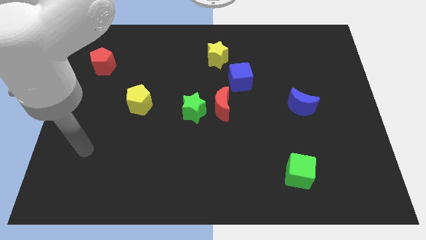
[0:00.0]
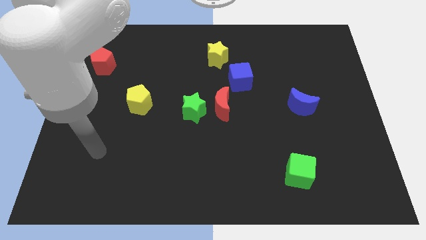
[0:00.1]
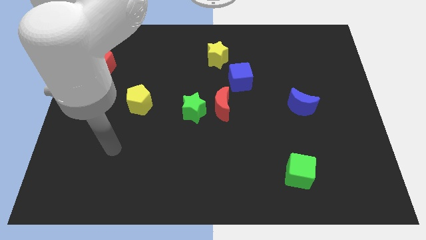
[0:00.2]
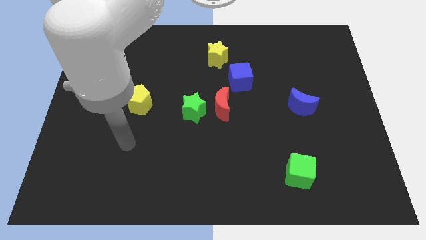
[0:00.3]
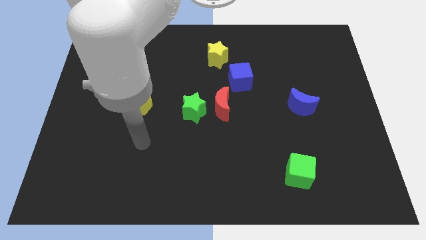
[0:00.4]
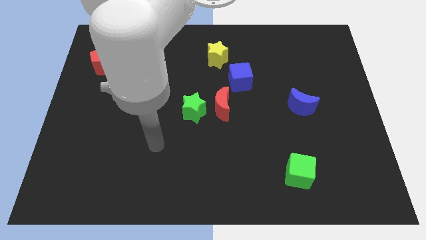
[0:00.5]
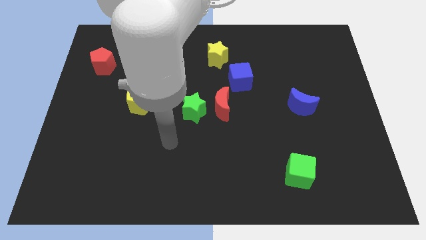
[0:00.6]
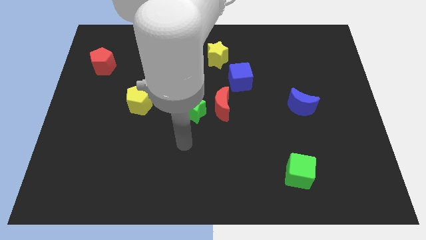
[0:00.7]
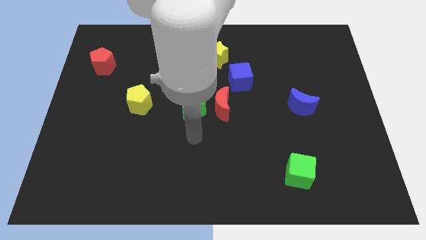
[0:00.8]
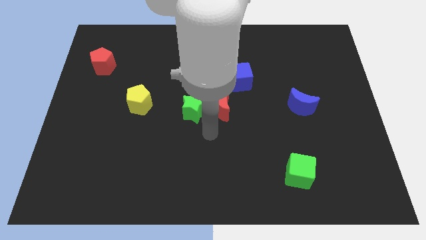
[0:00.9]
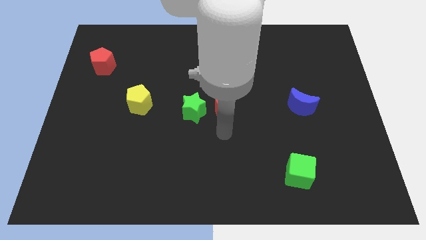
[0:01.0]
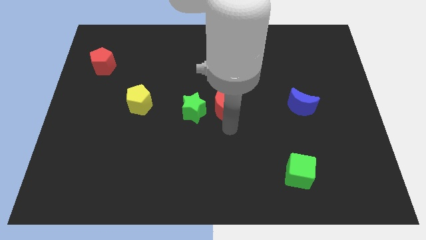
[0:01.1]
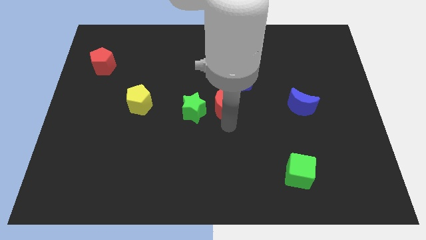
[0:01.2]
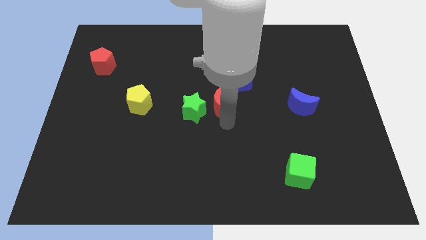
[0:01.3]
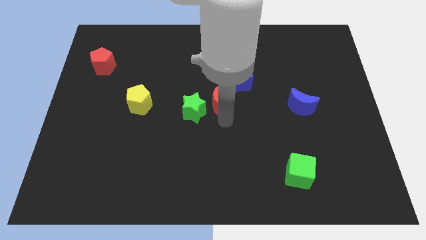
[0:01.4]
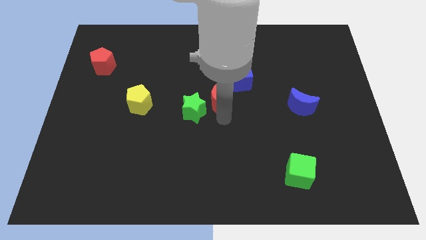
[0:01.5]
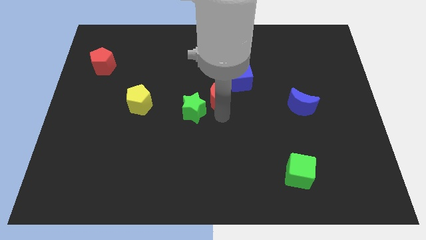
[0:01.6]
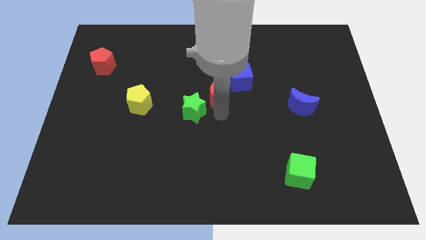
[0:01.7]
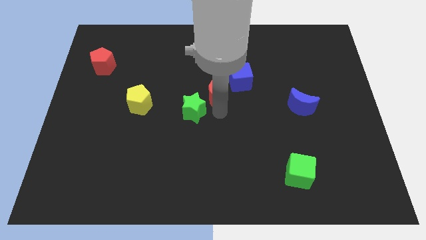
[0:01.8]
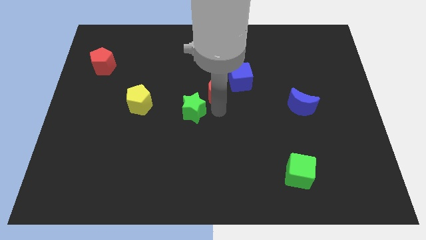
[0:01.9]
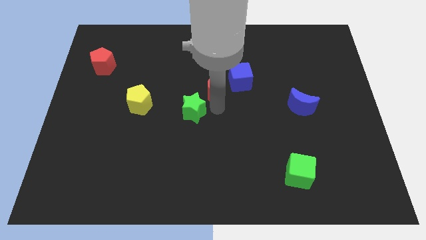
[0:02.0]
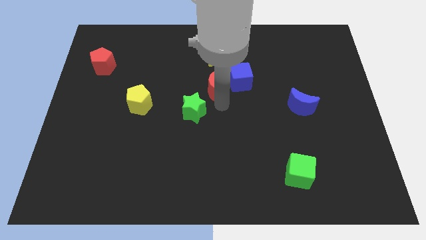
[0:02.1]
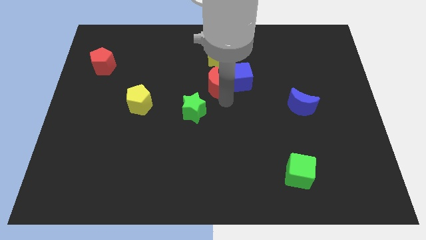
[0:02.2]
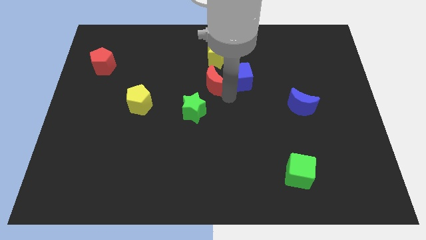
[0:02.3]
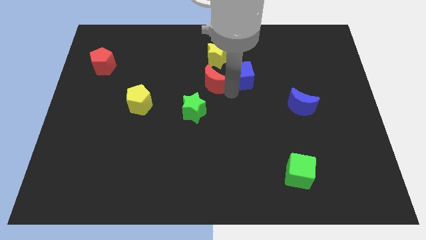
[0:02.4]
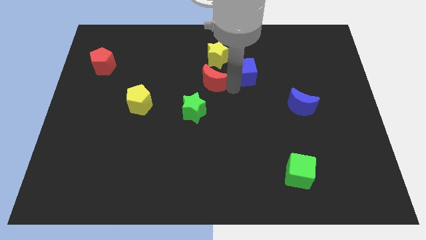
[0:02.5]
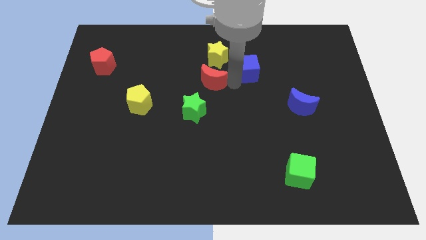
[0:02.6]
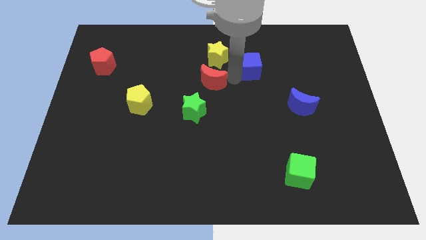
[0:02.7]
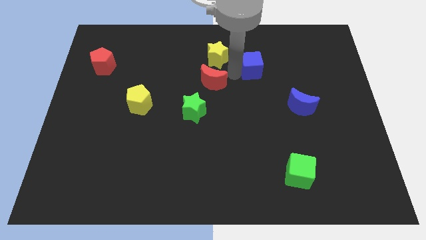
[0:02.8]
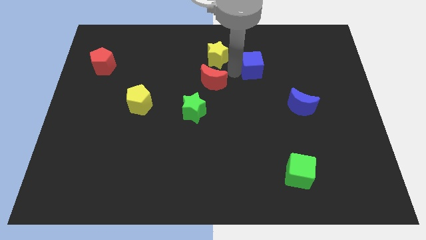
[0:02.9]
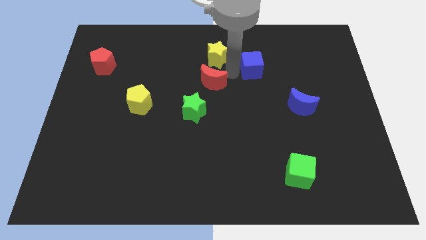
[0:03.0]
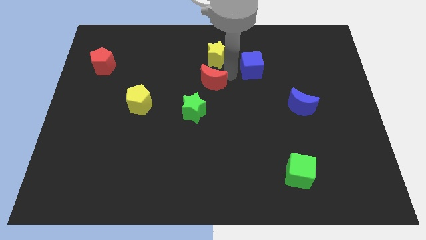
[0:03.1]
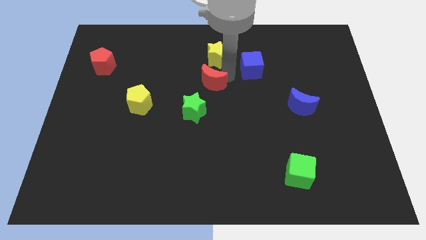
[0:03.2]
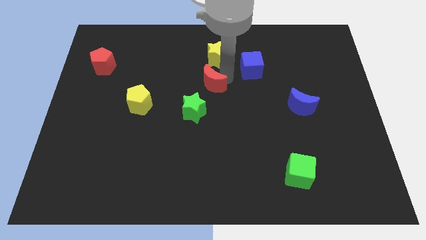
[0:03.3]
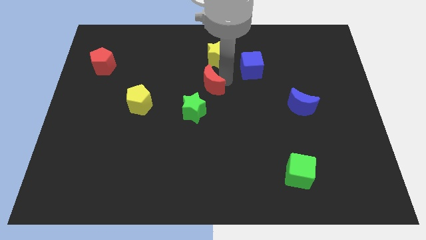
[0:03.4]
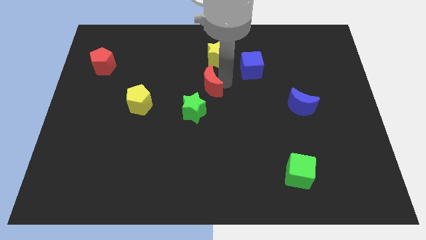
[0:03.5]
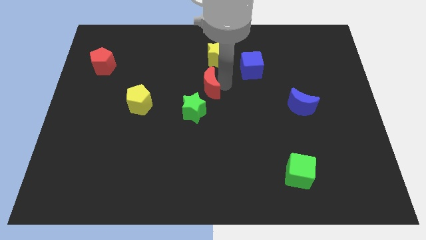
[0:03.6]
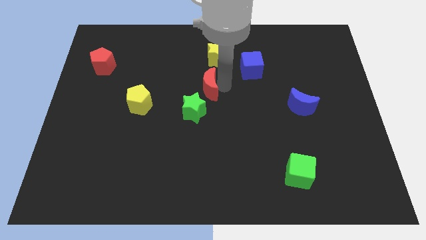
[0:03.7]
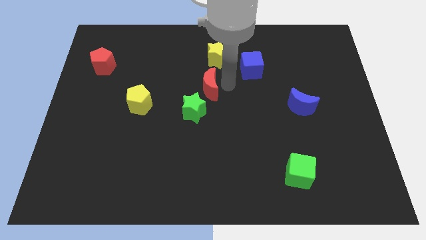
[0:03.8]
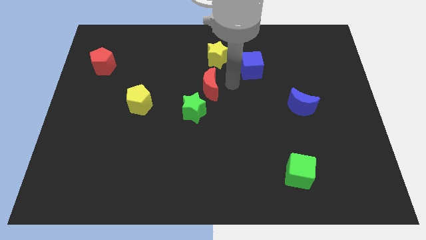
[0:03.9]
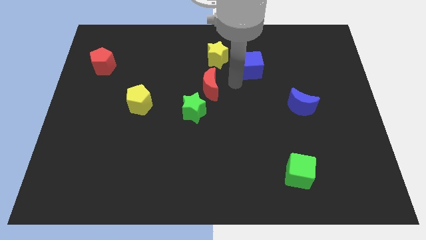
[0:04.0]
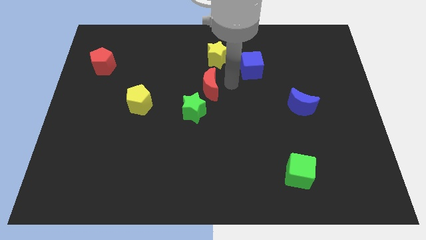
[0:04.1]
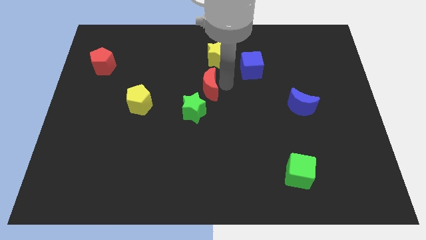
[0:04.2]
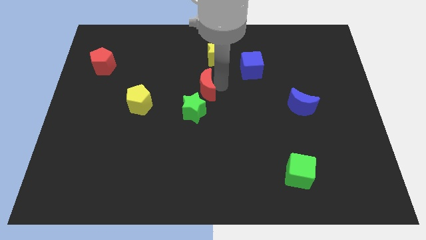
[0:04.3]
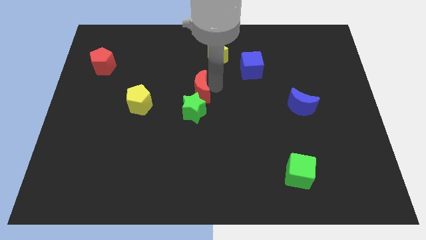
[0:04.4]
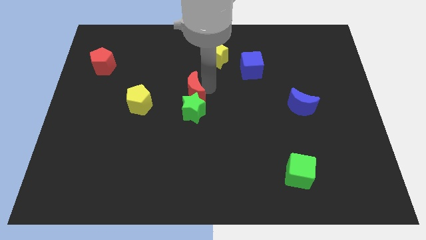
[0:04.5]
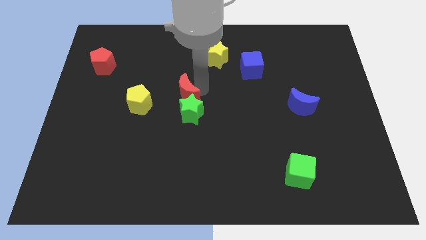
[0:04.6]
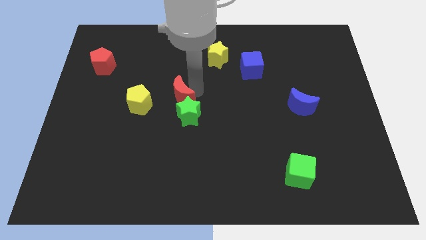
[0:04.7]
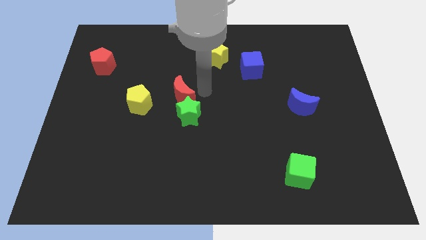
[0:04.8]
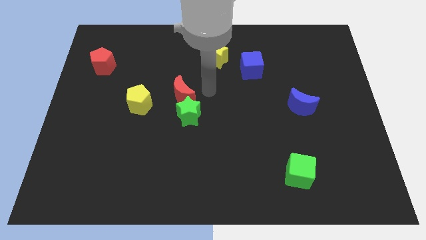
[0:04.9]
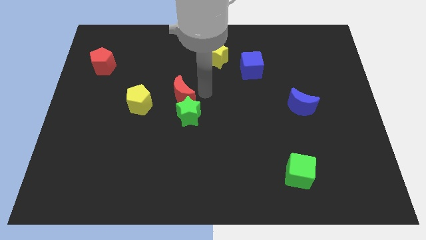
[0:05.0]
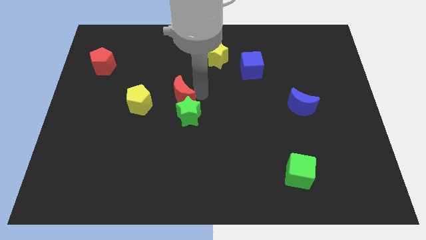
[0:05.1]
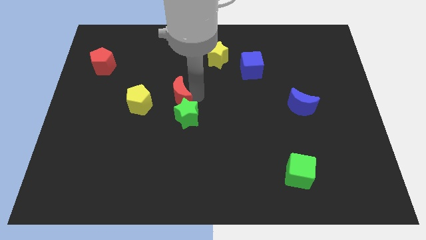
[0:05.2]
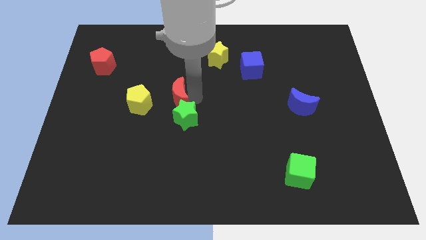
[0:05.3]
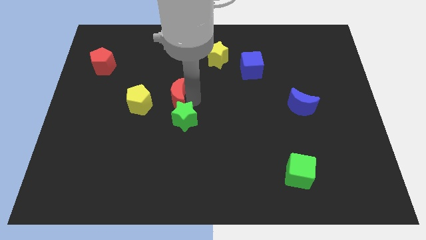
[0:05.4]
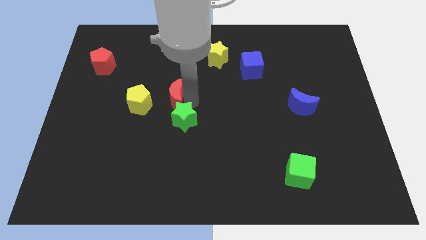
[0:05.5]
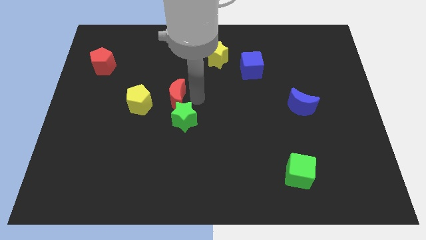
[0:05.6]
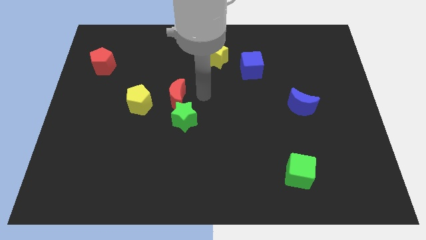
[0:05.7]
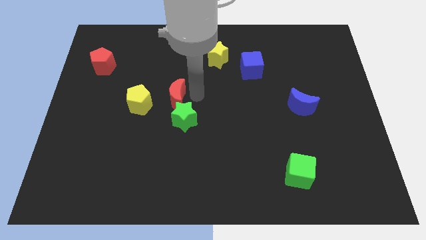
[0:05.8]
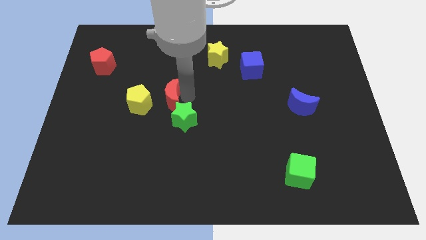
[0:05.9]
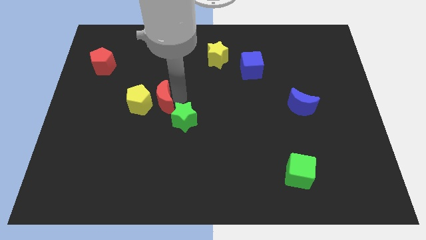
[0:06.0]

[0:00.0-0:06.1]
put the red moon close to the yellow pentagon

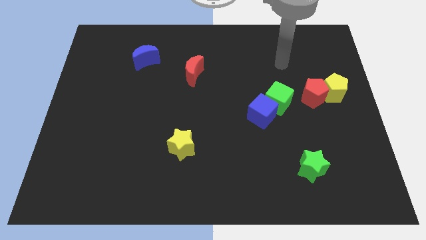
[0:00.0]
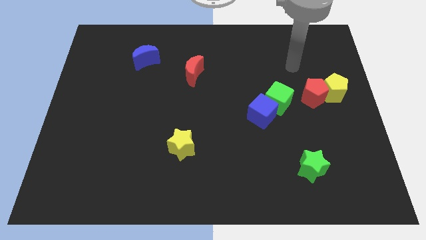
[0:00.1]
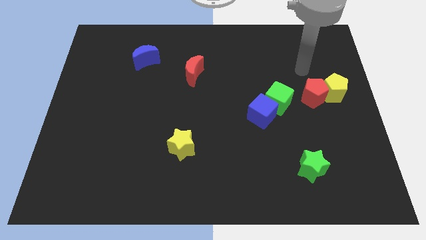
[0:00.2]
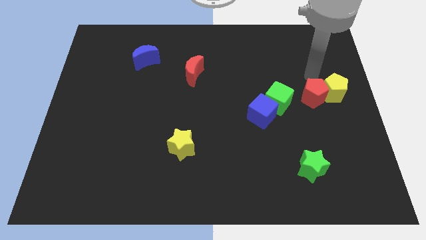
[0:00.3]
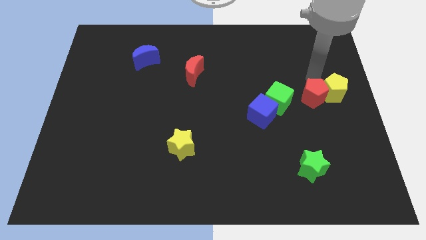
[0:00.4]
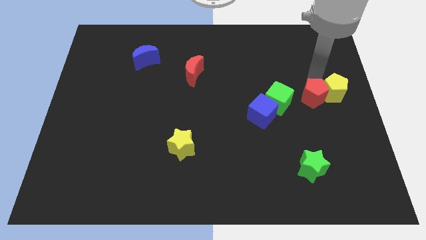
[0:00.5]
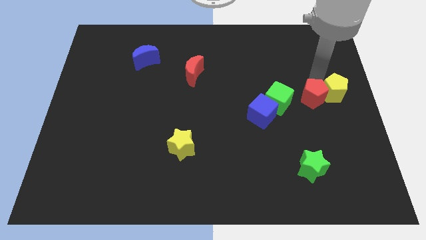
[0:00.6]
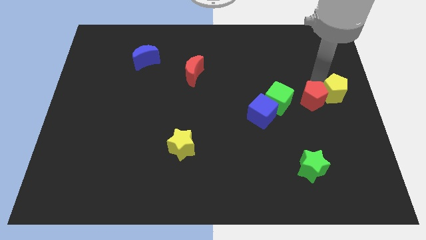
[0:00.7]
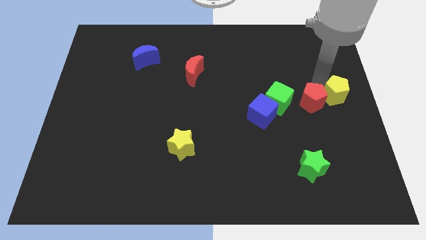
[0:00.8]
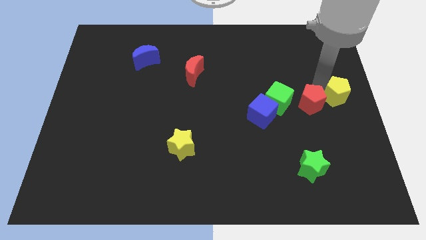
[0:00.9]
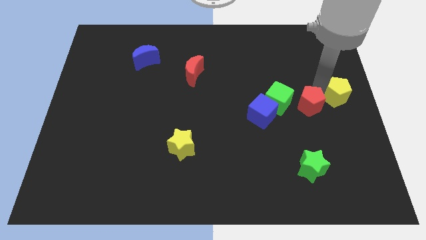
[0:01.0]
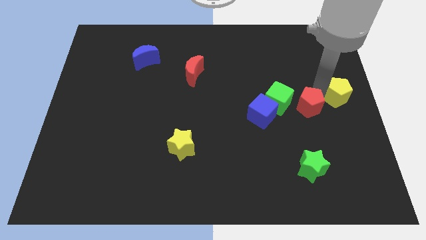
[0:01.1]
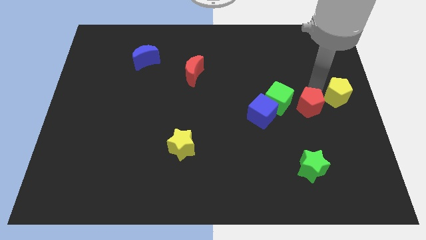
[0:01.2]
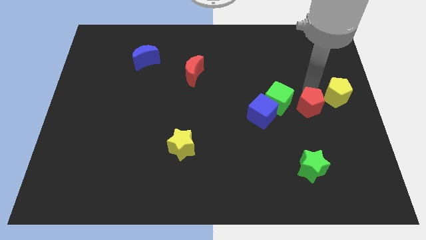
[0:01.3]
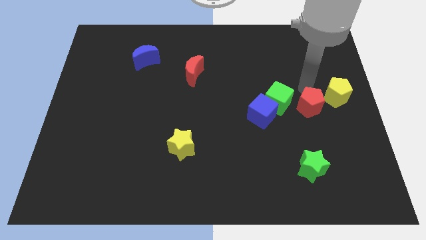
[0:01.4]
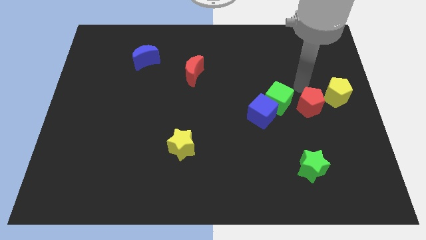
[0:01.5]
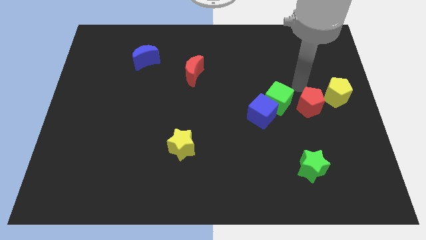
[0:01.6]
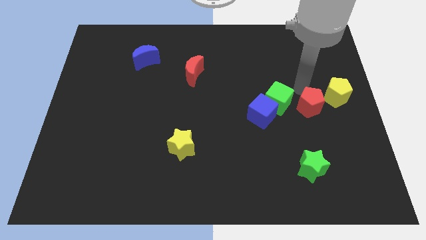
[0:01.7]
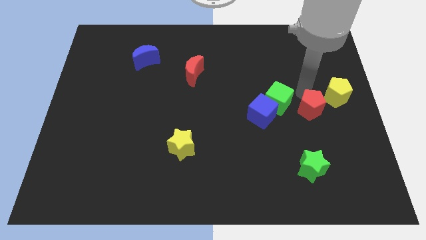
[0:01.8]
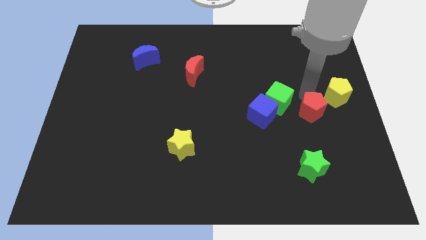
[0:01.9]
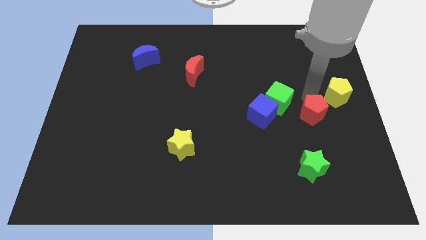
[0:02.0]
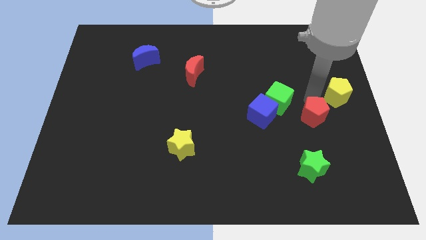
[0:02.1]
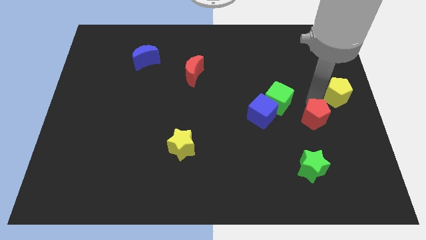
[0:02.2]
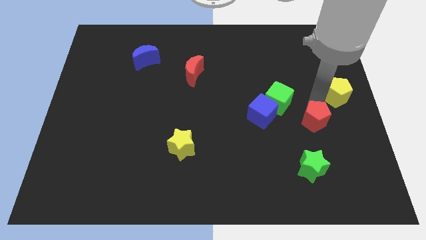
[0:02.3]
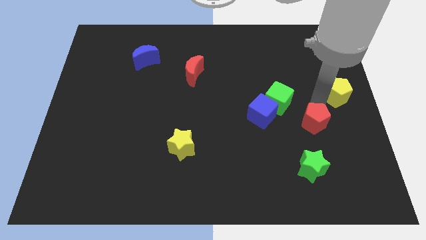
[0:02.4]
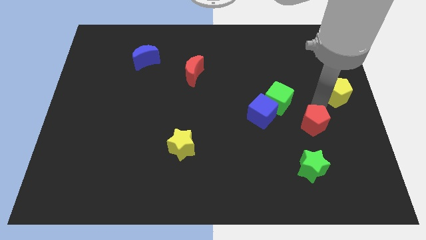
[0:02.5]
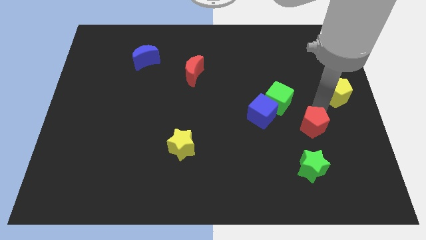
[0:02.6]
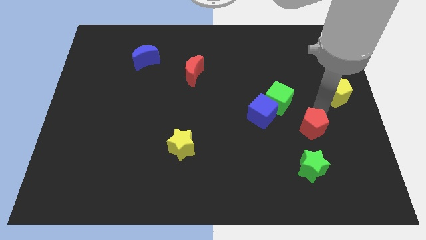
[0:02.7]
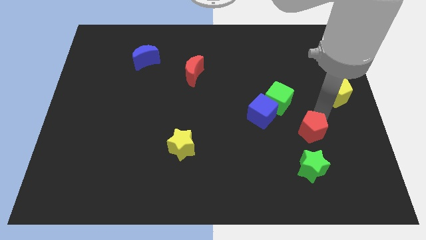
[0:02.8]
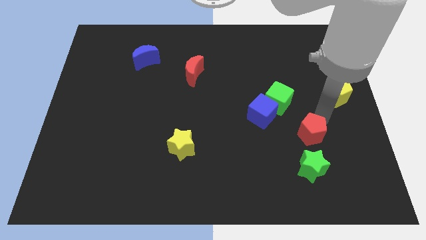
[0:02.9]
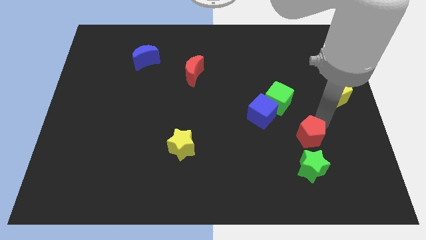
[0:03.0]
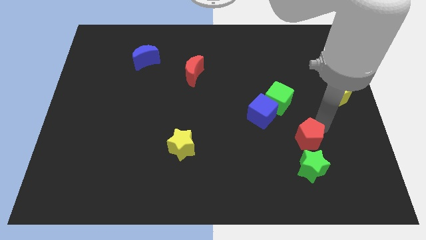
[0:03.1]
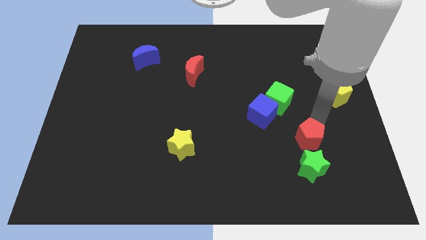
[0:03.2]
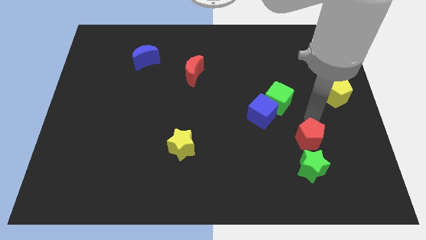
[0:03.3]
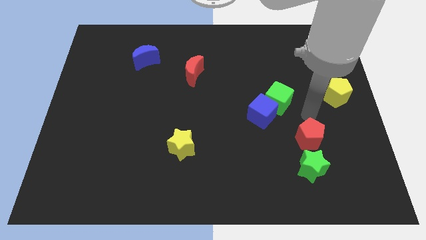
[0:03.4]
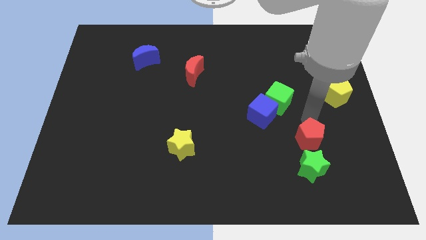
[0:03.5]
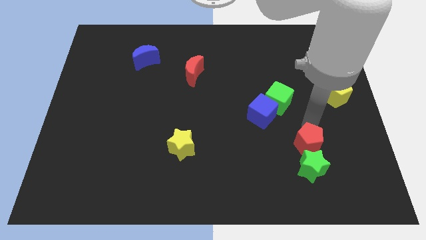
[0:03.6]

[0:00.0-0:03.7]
move the red pentagon to the green star
